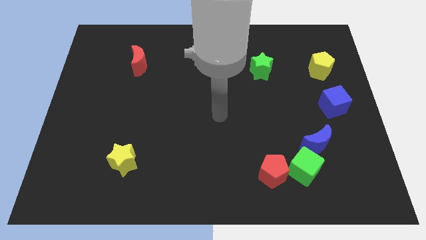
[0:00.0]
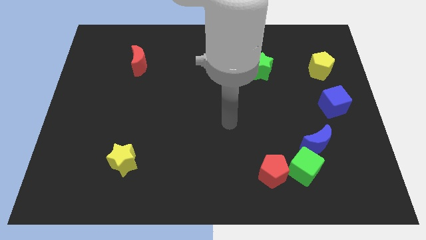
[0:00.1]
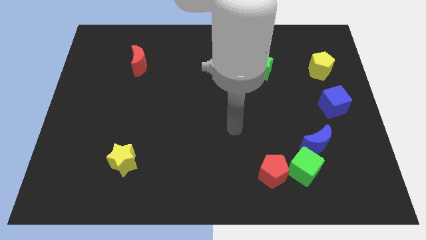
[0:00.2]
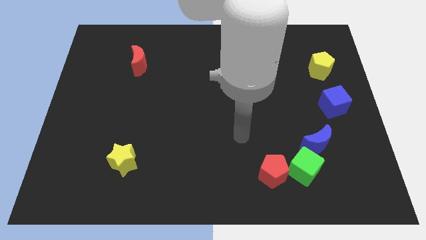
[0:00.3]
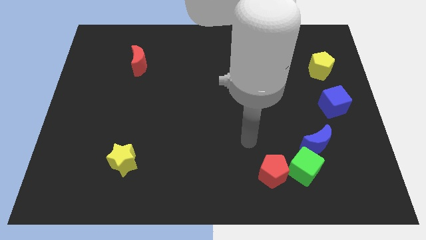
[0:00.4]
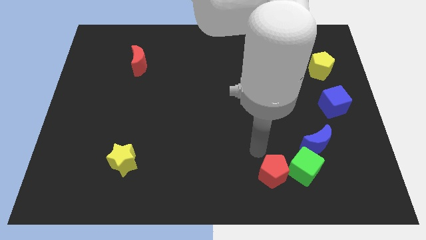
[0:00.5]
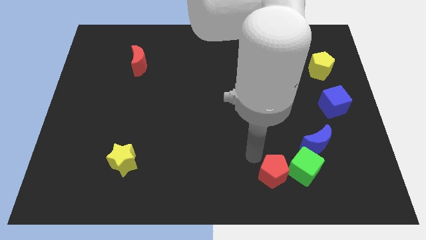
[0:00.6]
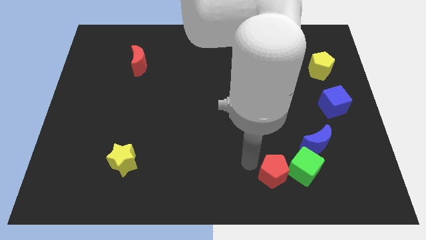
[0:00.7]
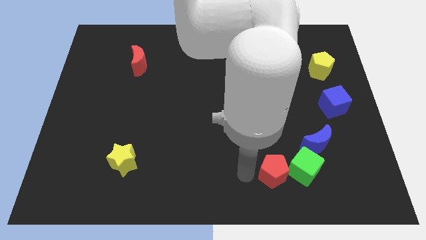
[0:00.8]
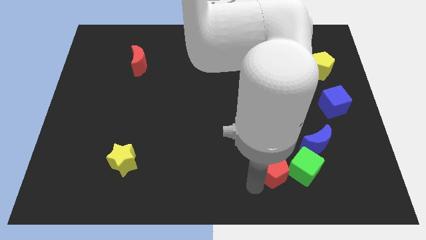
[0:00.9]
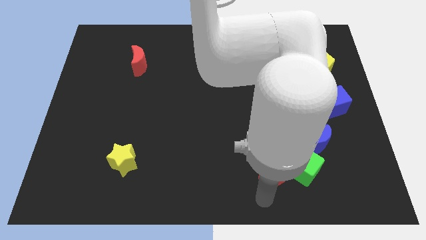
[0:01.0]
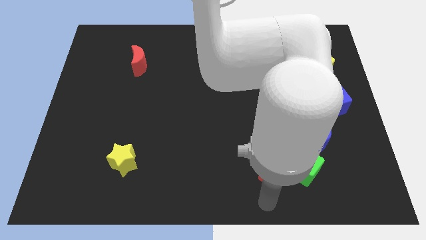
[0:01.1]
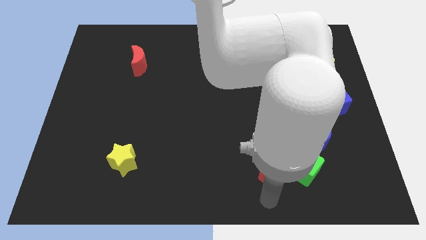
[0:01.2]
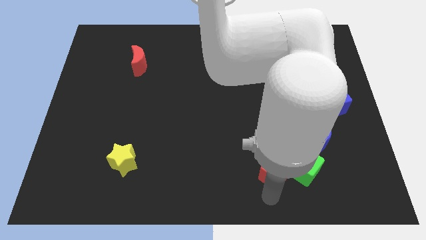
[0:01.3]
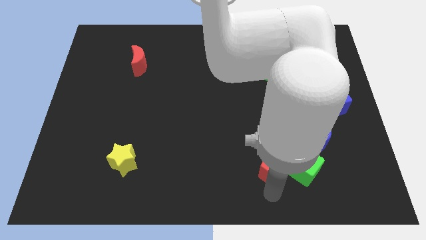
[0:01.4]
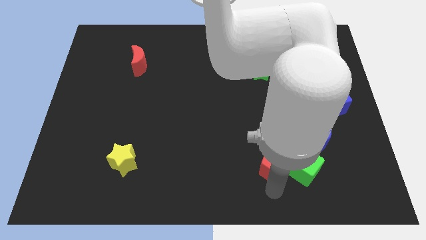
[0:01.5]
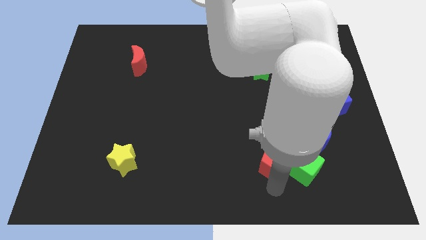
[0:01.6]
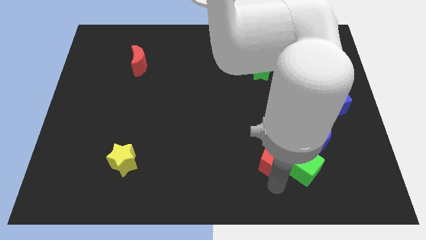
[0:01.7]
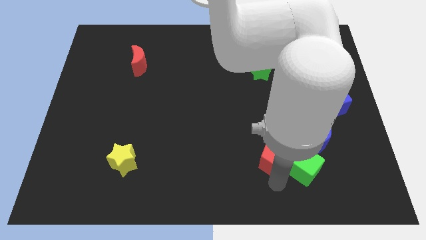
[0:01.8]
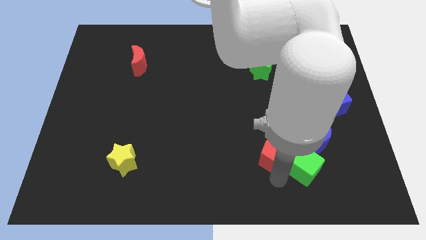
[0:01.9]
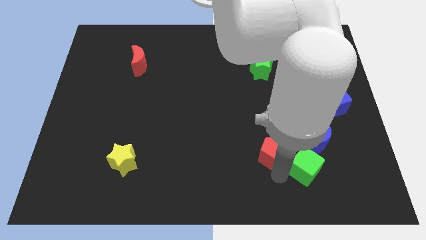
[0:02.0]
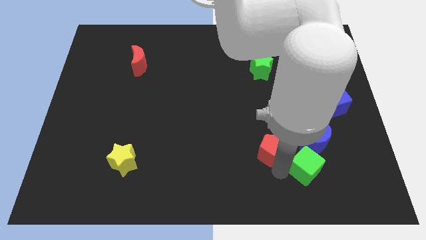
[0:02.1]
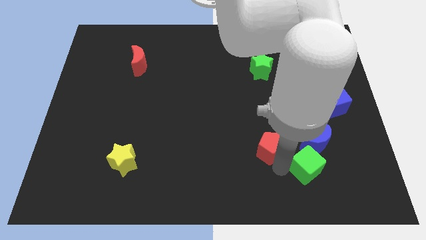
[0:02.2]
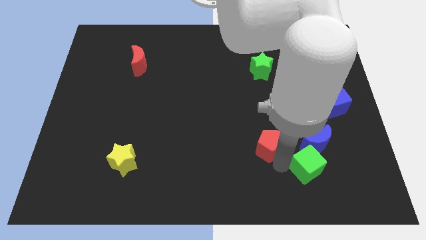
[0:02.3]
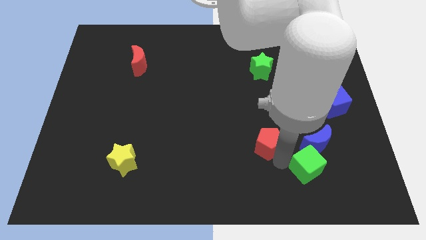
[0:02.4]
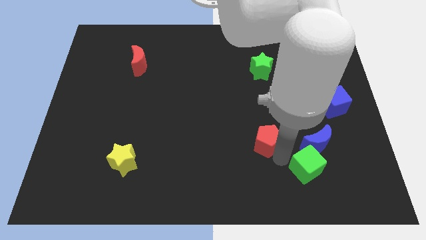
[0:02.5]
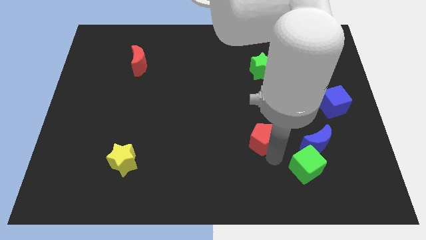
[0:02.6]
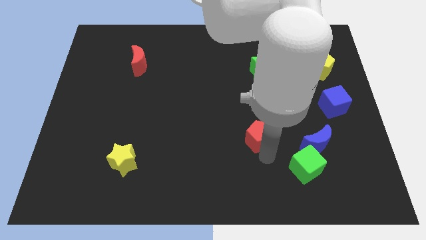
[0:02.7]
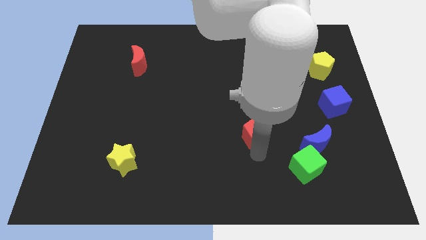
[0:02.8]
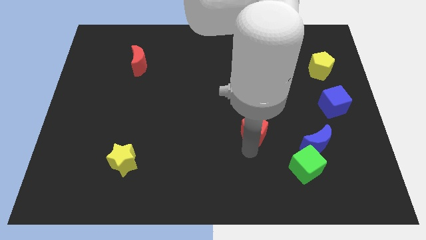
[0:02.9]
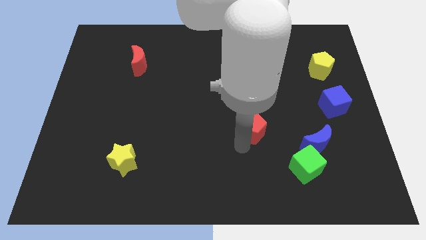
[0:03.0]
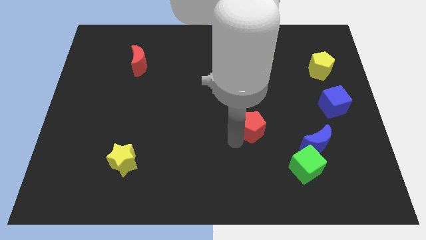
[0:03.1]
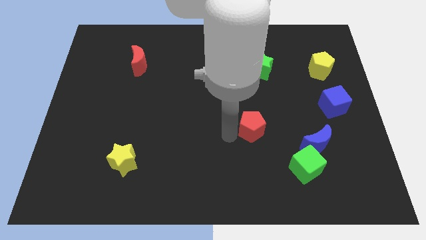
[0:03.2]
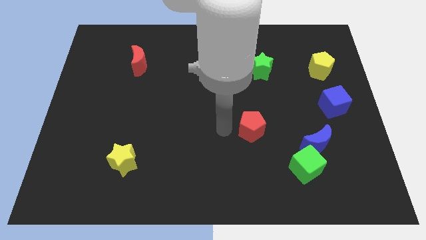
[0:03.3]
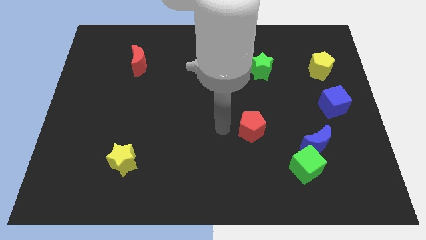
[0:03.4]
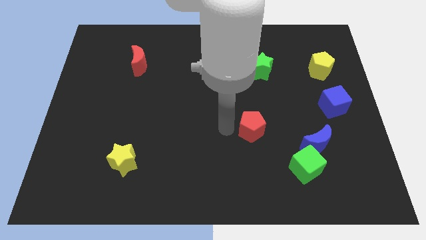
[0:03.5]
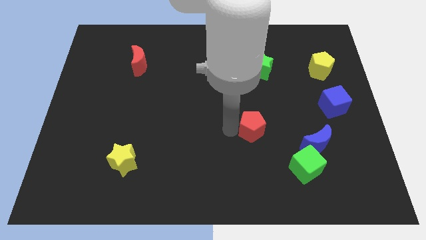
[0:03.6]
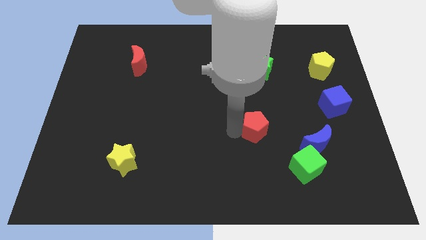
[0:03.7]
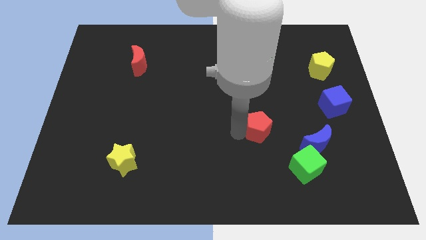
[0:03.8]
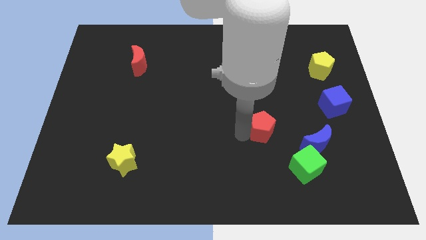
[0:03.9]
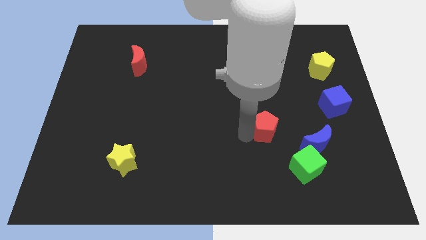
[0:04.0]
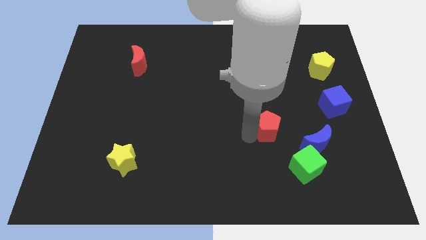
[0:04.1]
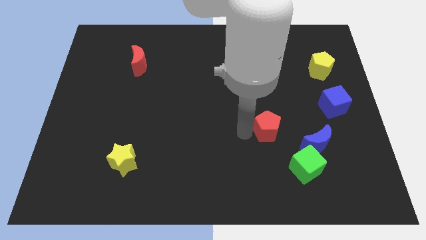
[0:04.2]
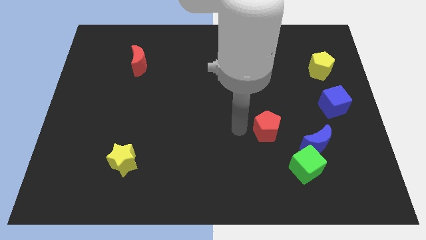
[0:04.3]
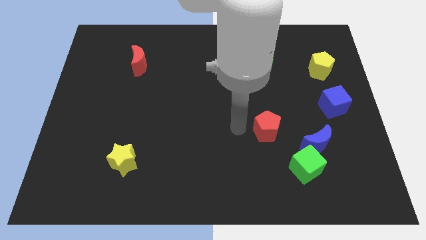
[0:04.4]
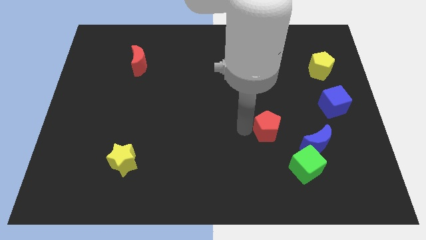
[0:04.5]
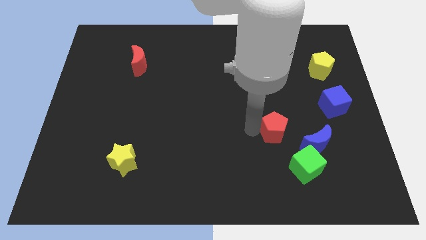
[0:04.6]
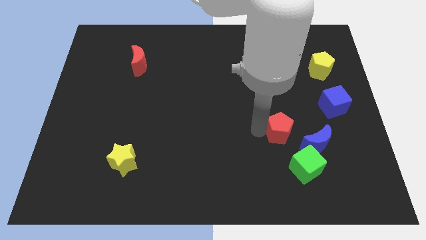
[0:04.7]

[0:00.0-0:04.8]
slightly slide the red pentagon upwards and to the right diagonally

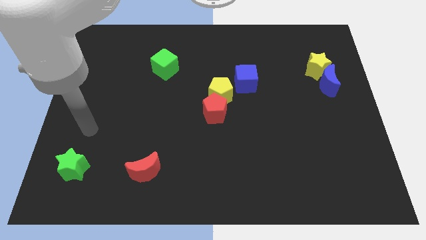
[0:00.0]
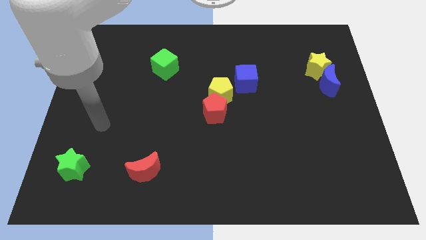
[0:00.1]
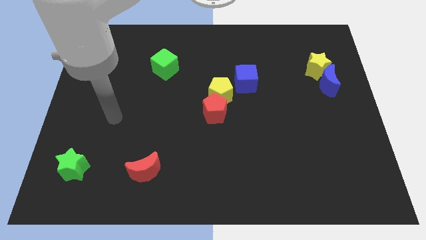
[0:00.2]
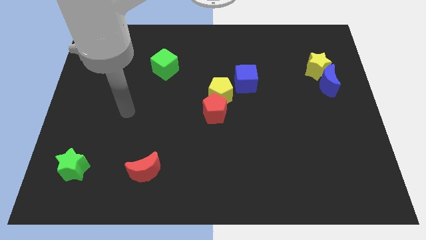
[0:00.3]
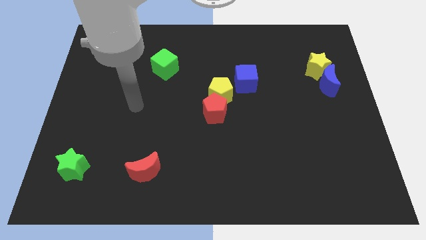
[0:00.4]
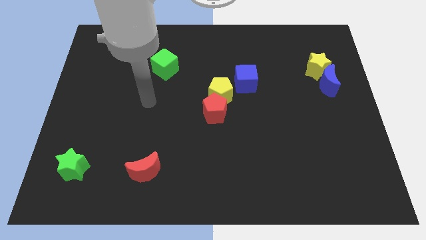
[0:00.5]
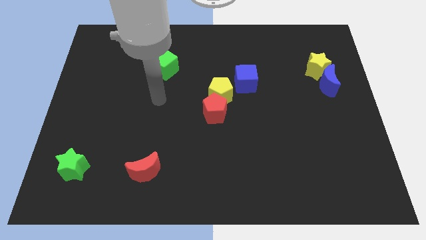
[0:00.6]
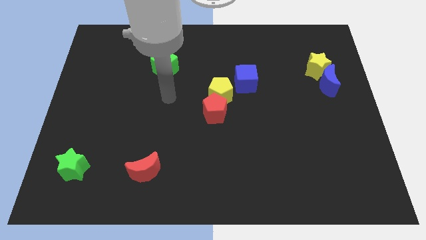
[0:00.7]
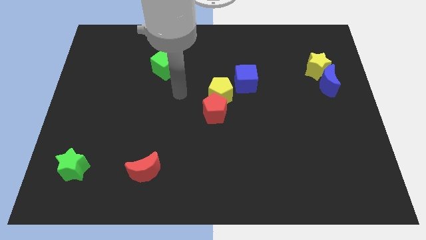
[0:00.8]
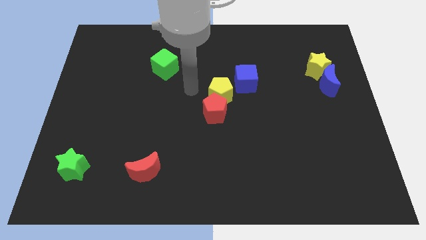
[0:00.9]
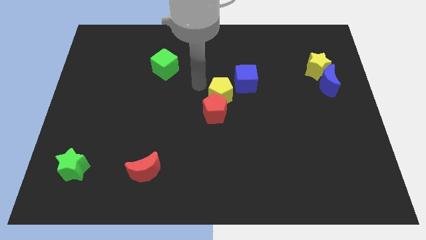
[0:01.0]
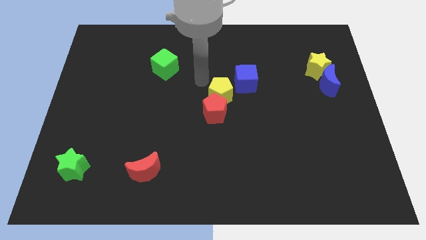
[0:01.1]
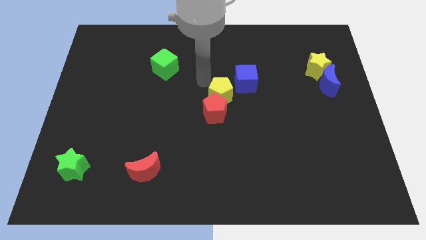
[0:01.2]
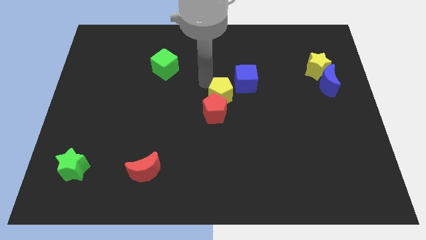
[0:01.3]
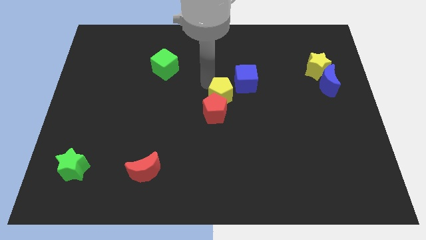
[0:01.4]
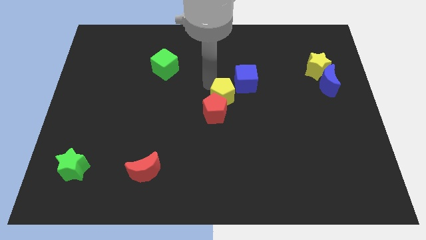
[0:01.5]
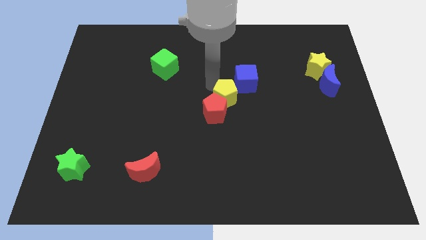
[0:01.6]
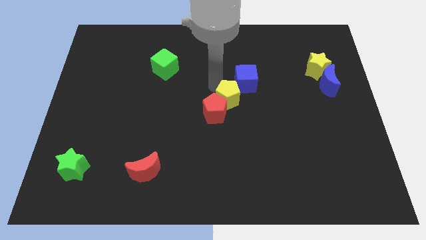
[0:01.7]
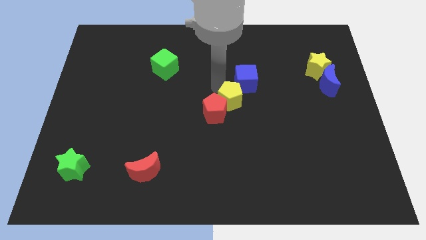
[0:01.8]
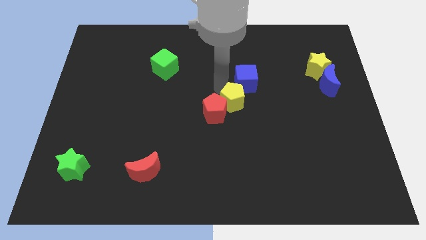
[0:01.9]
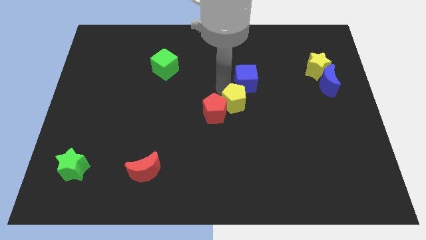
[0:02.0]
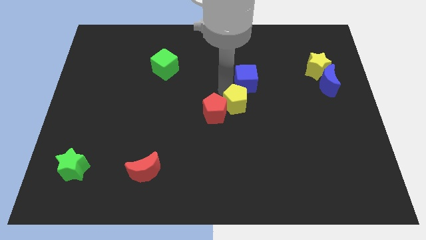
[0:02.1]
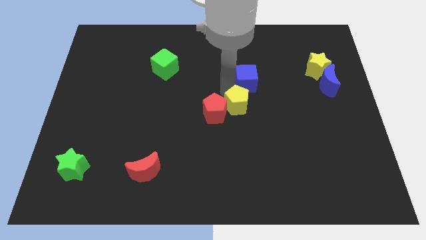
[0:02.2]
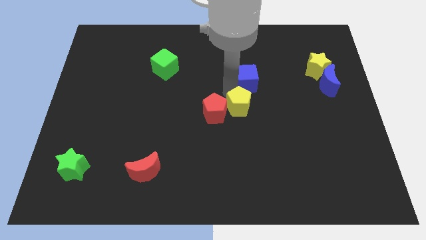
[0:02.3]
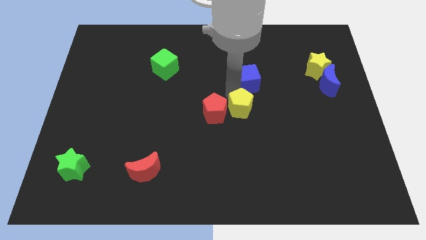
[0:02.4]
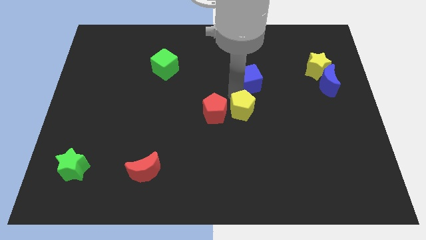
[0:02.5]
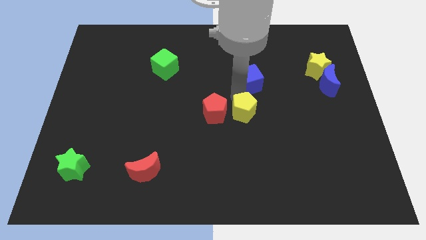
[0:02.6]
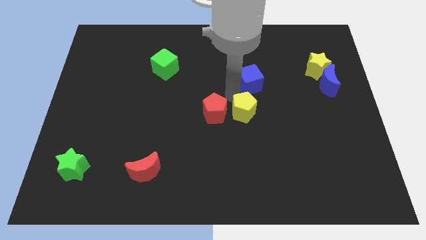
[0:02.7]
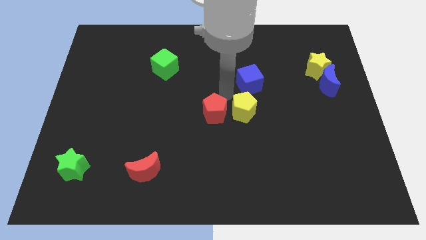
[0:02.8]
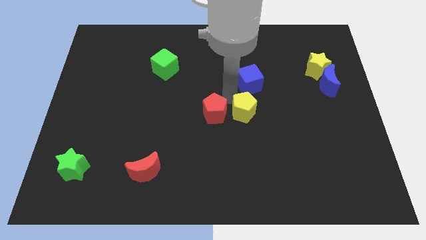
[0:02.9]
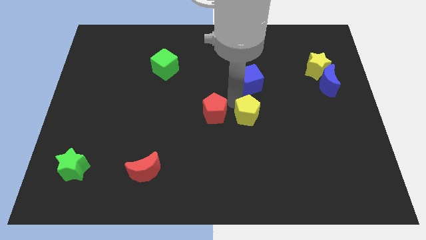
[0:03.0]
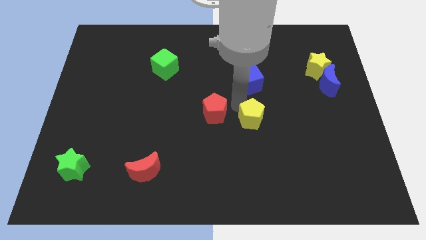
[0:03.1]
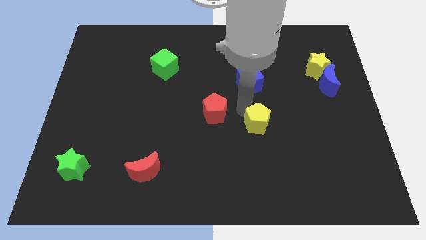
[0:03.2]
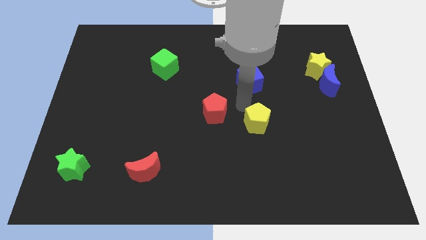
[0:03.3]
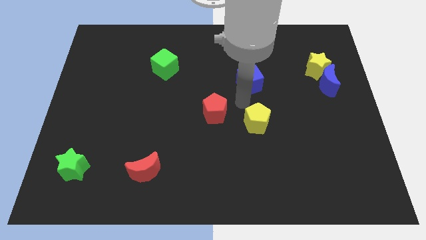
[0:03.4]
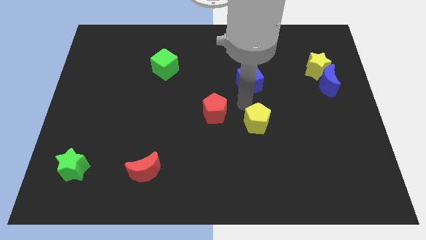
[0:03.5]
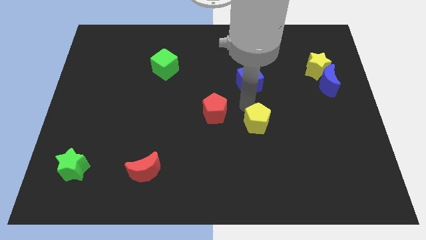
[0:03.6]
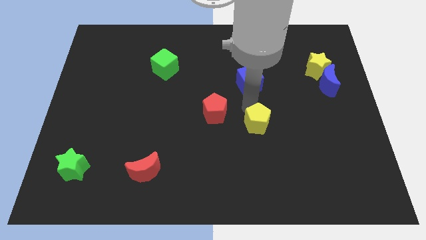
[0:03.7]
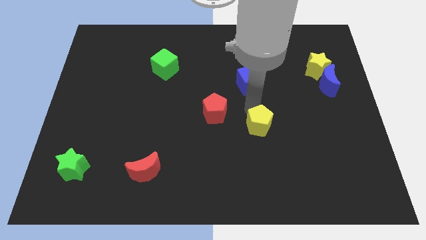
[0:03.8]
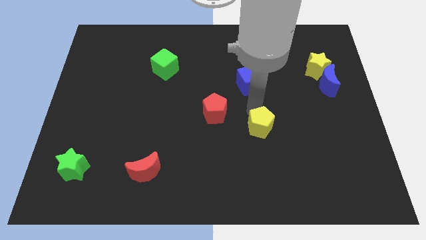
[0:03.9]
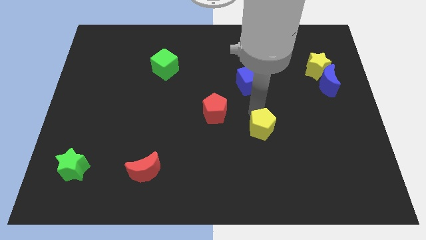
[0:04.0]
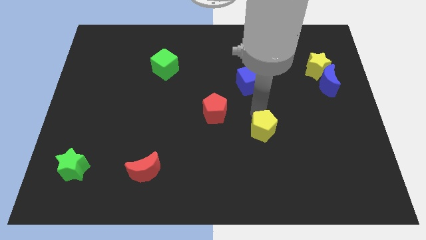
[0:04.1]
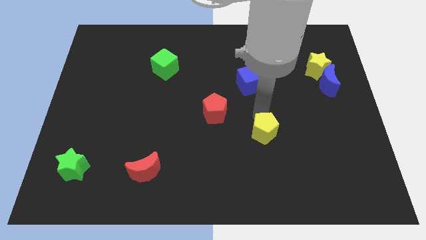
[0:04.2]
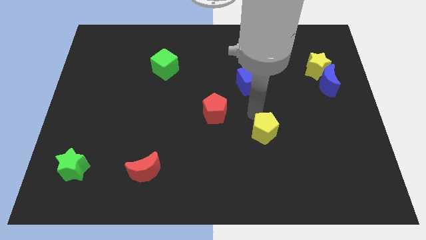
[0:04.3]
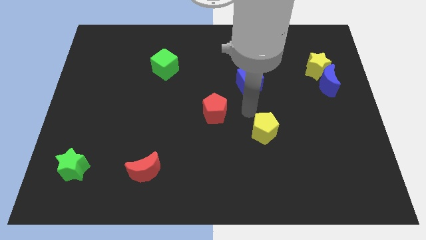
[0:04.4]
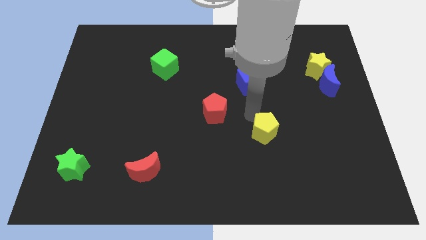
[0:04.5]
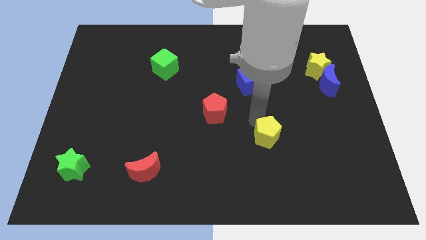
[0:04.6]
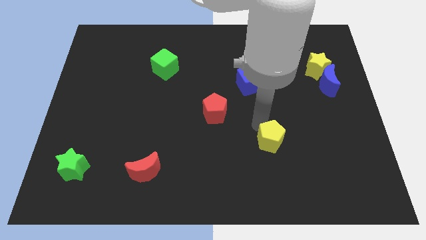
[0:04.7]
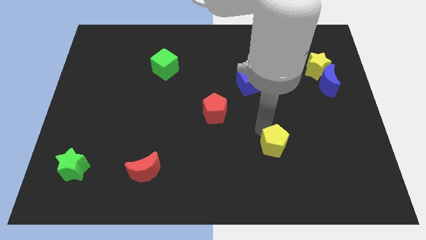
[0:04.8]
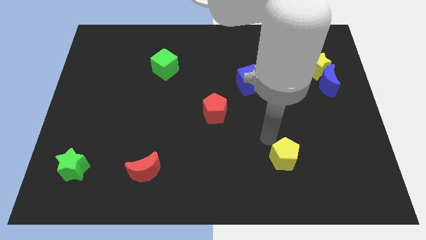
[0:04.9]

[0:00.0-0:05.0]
move the yellow pentagon down and then right
